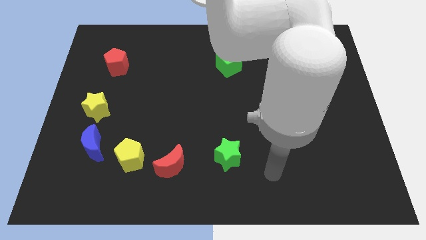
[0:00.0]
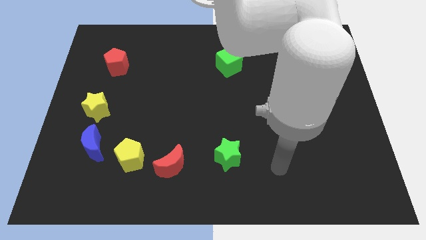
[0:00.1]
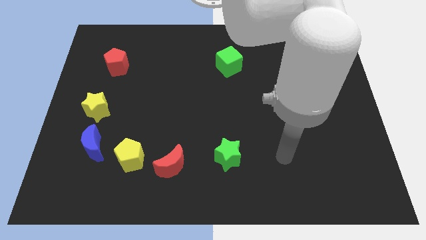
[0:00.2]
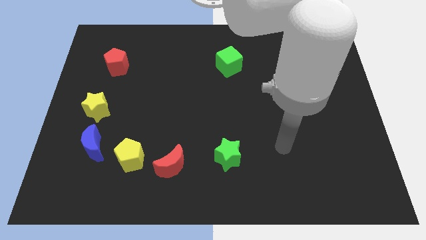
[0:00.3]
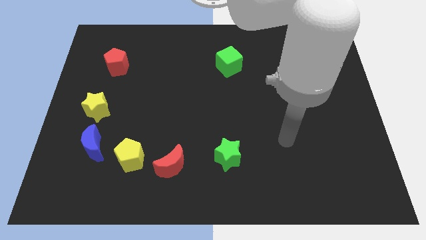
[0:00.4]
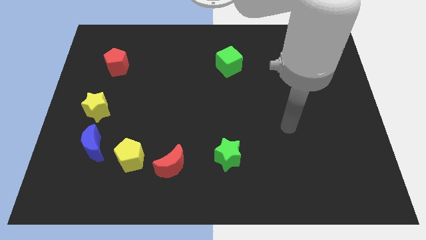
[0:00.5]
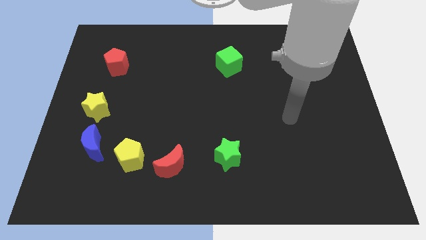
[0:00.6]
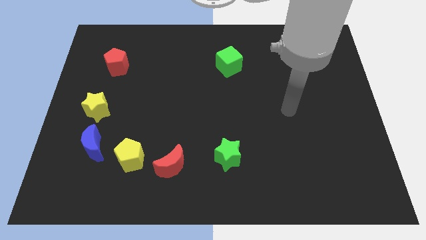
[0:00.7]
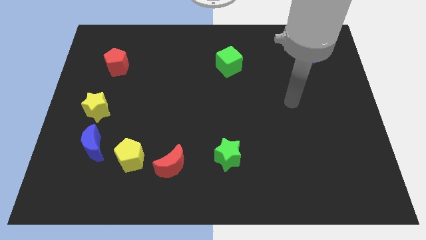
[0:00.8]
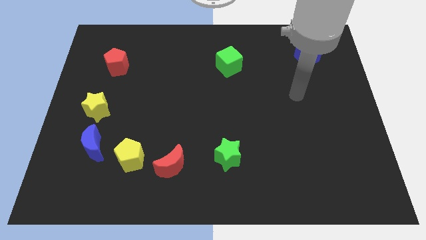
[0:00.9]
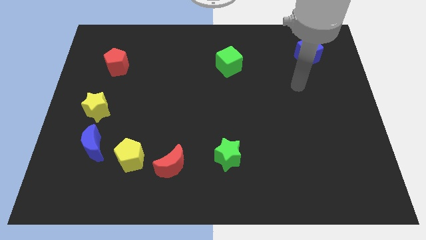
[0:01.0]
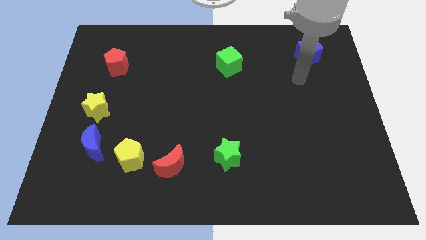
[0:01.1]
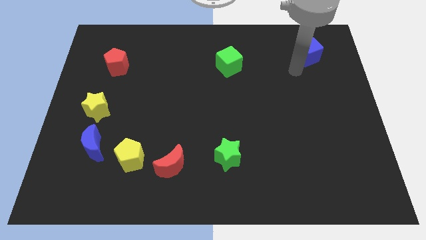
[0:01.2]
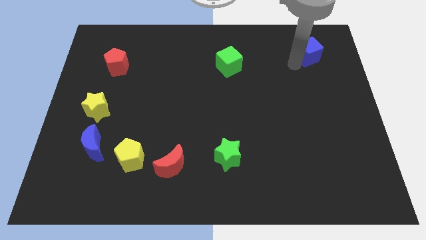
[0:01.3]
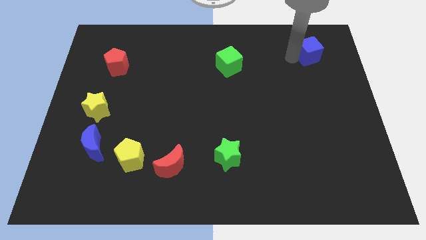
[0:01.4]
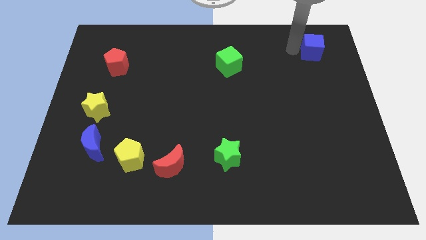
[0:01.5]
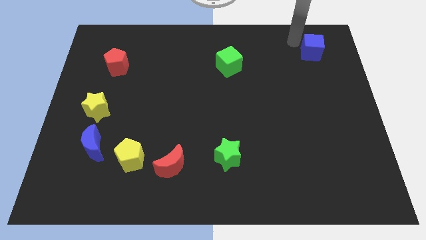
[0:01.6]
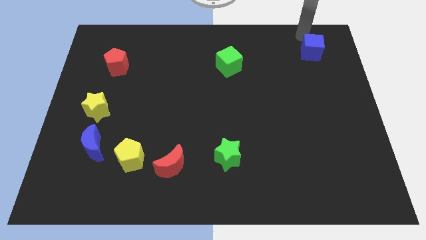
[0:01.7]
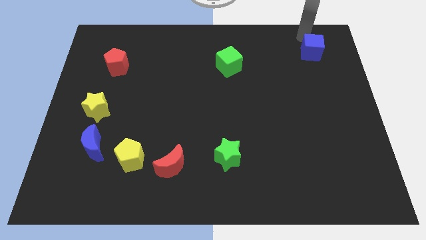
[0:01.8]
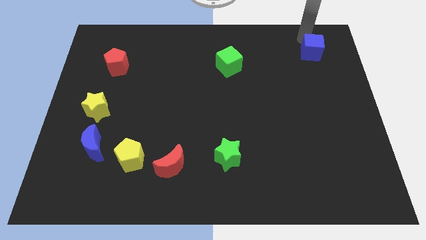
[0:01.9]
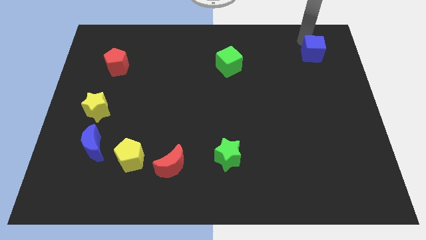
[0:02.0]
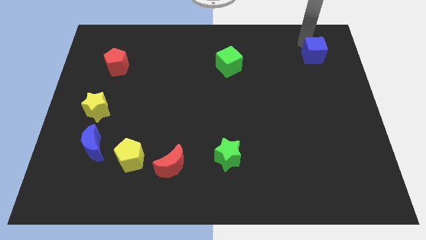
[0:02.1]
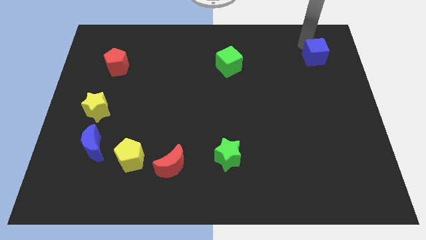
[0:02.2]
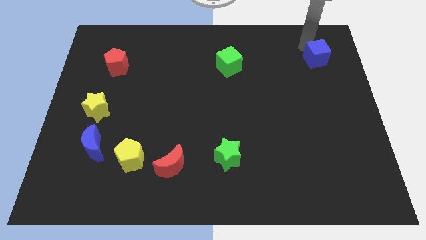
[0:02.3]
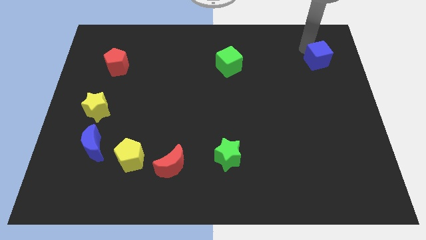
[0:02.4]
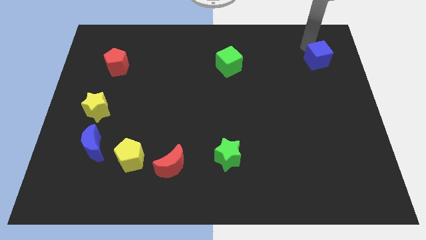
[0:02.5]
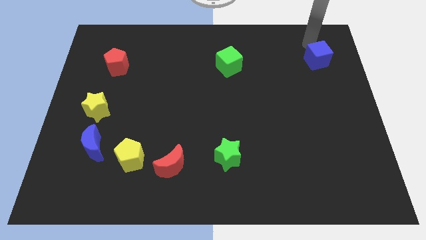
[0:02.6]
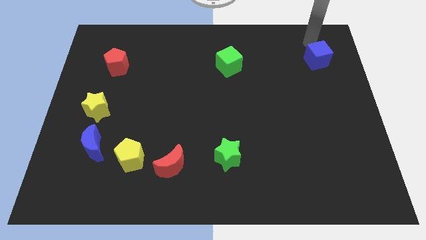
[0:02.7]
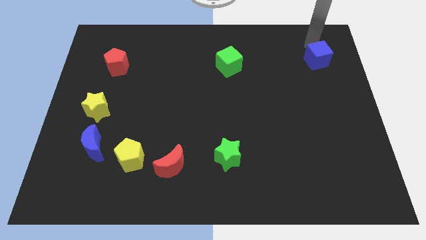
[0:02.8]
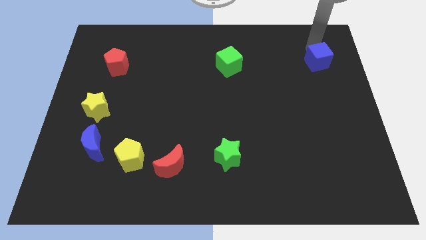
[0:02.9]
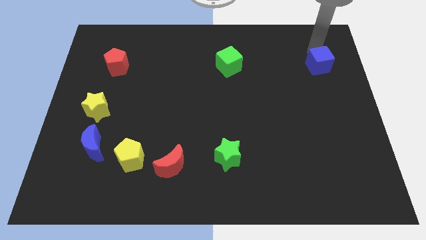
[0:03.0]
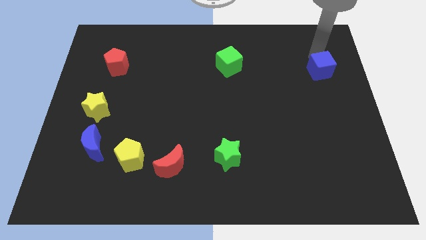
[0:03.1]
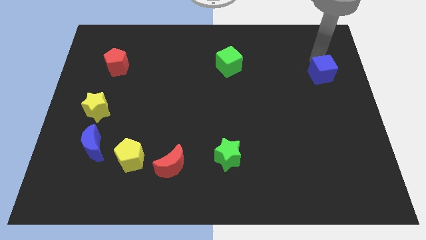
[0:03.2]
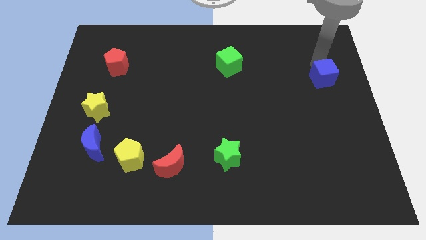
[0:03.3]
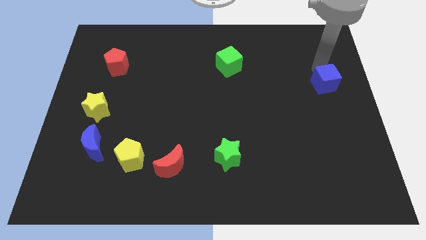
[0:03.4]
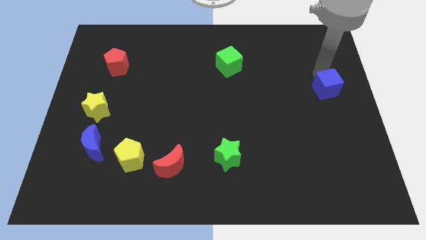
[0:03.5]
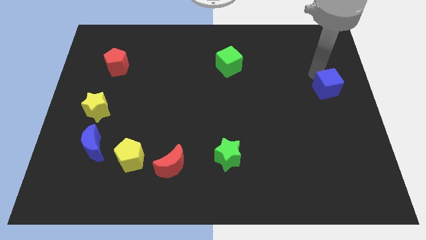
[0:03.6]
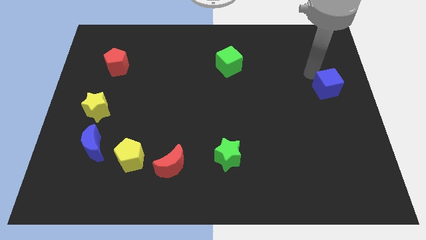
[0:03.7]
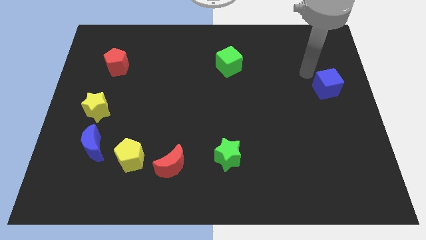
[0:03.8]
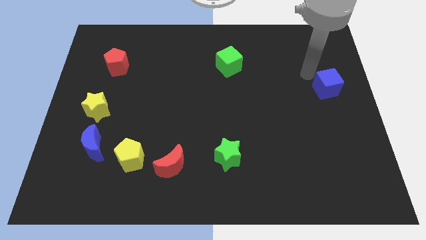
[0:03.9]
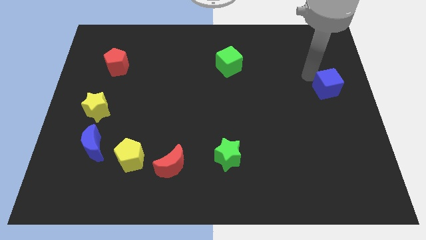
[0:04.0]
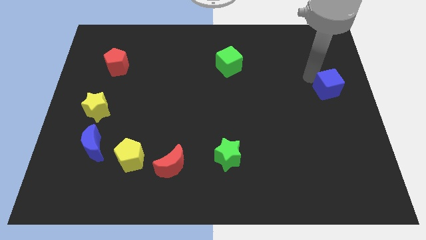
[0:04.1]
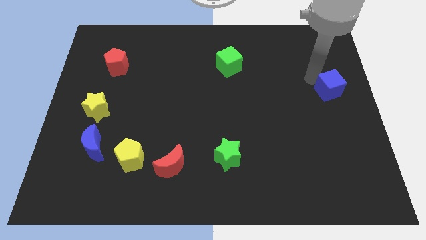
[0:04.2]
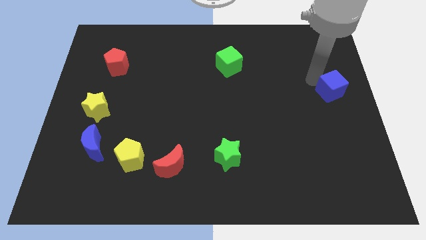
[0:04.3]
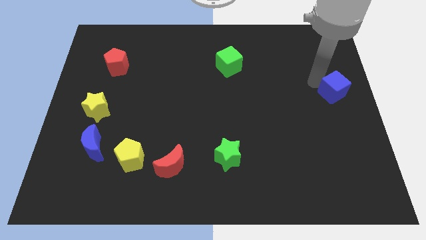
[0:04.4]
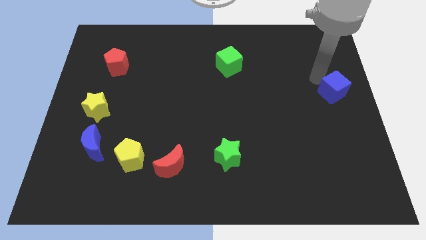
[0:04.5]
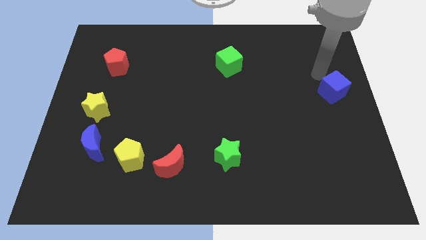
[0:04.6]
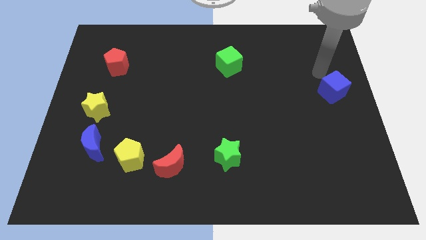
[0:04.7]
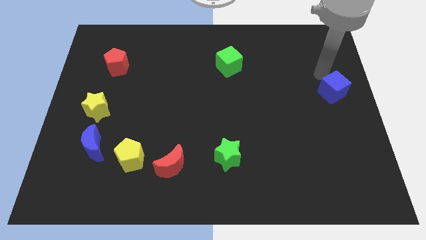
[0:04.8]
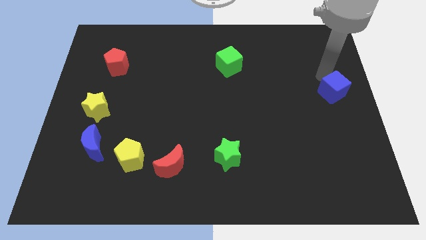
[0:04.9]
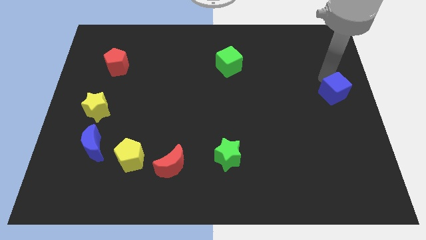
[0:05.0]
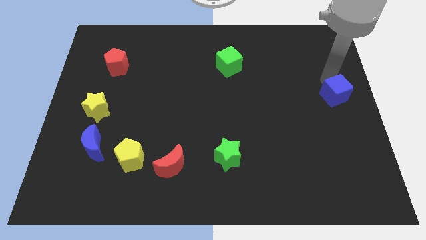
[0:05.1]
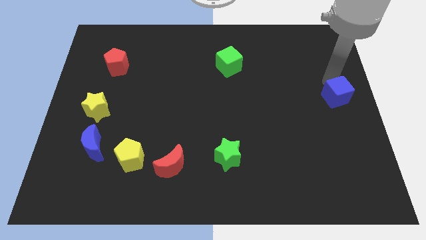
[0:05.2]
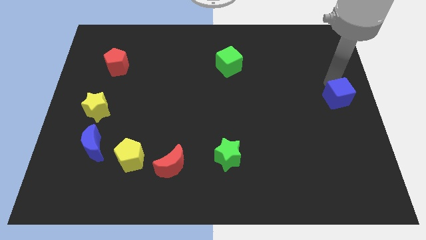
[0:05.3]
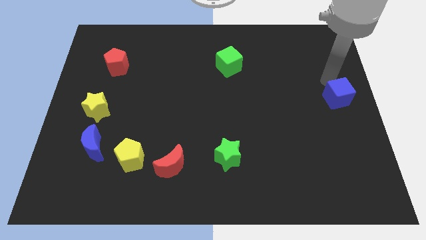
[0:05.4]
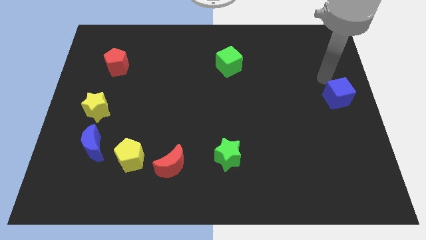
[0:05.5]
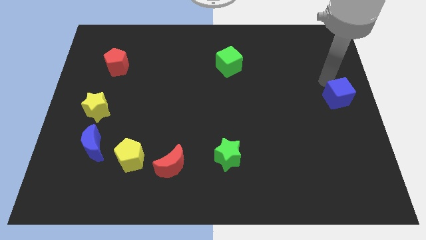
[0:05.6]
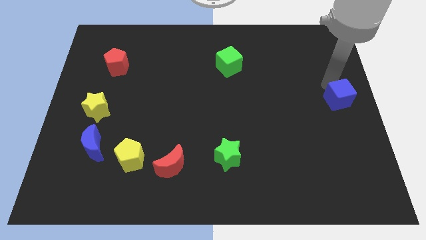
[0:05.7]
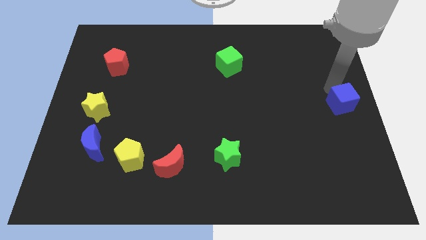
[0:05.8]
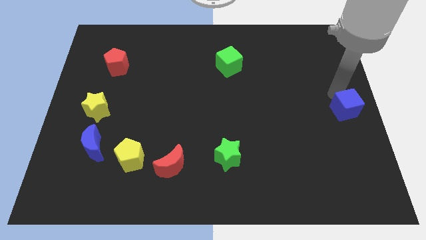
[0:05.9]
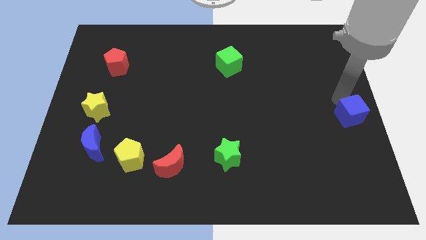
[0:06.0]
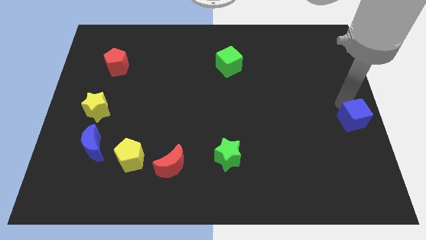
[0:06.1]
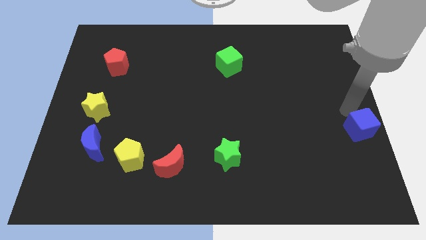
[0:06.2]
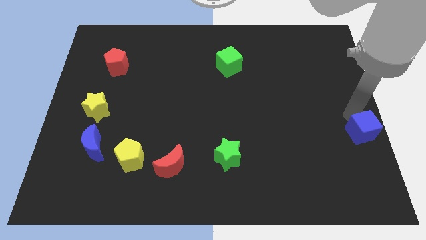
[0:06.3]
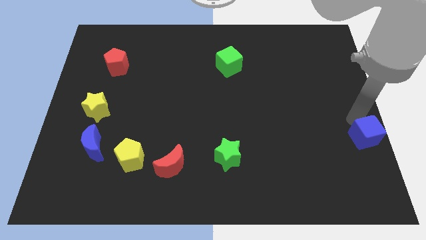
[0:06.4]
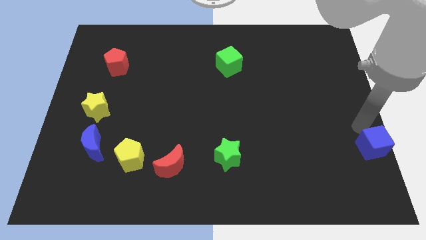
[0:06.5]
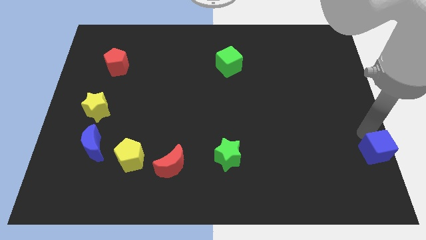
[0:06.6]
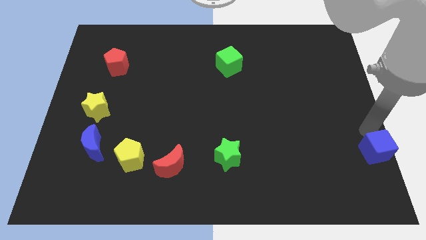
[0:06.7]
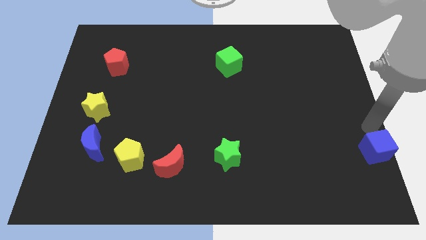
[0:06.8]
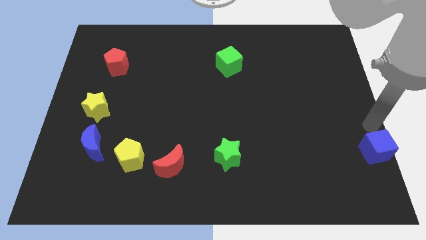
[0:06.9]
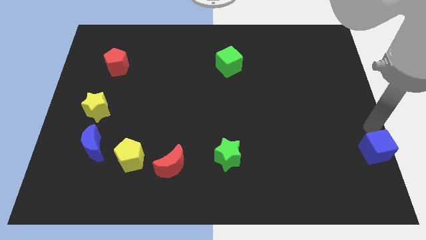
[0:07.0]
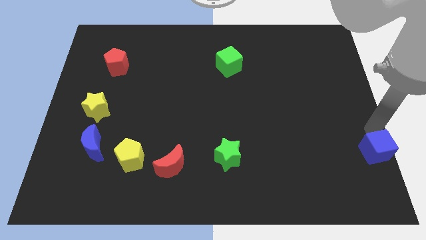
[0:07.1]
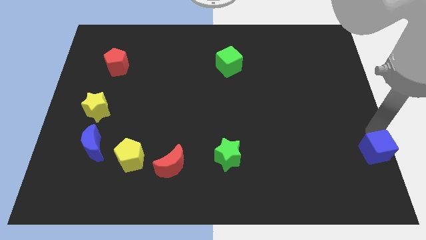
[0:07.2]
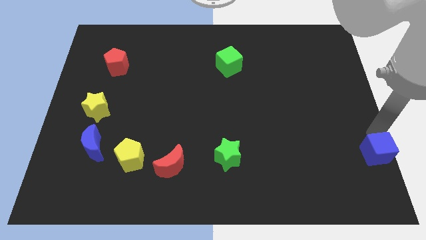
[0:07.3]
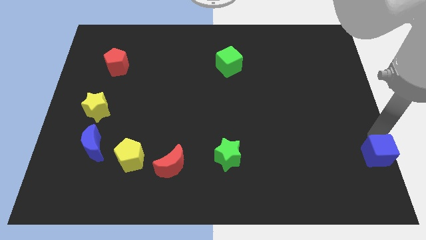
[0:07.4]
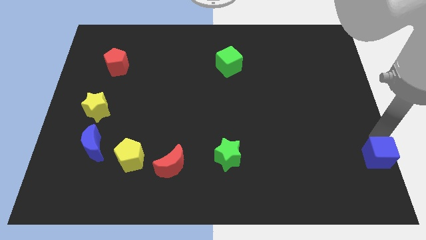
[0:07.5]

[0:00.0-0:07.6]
push the blue cube to the lower right corner

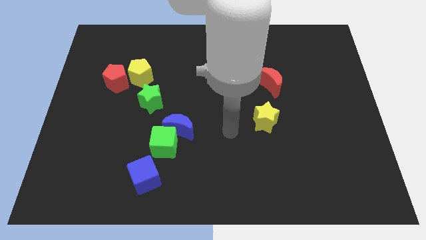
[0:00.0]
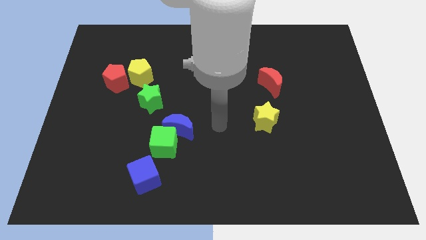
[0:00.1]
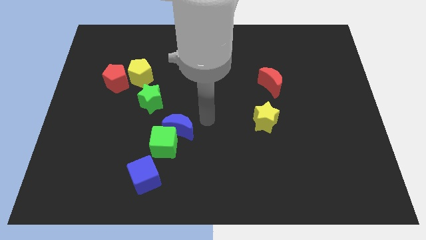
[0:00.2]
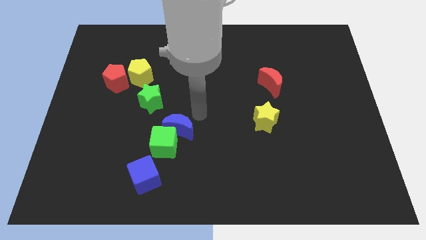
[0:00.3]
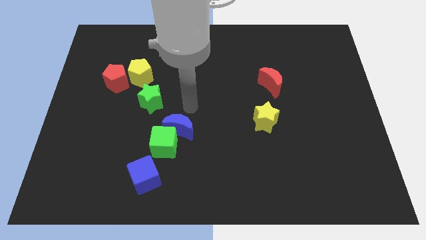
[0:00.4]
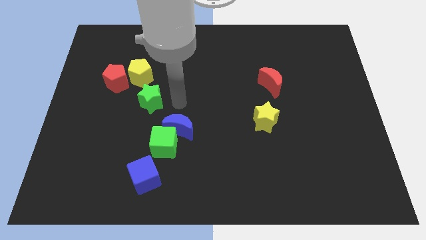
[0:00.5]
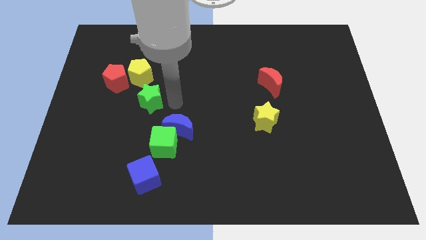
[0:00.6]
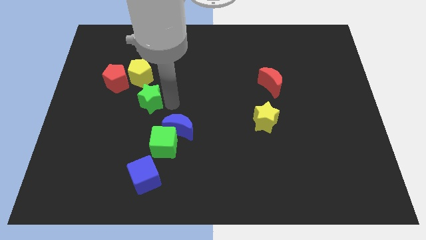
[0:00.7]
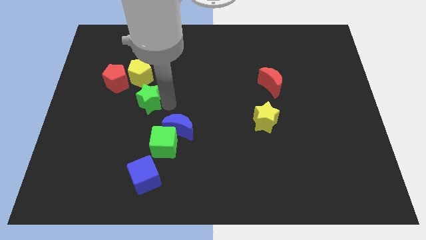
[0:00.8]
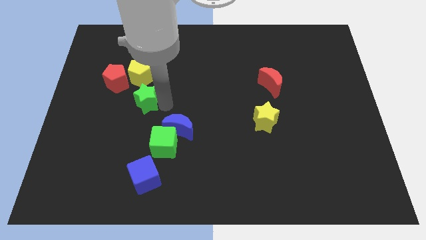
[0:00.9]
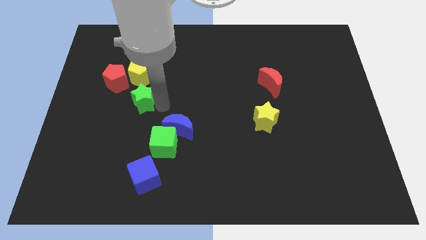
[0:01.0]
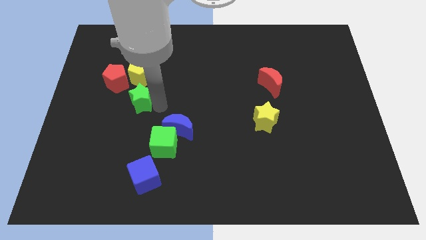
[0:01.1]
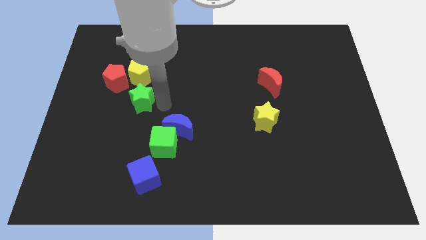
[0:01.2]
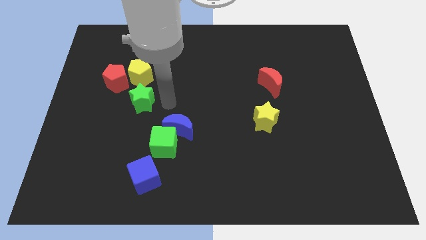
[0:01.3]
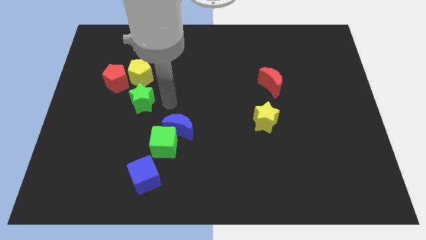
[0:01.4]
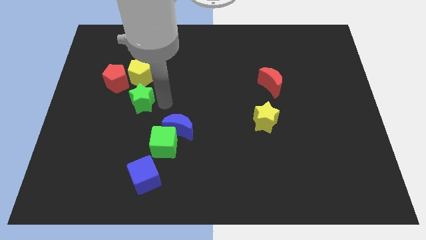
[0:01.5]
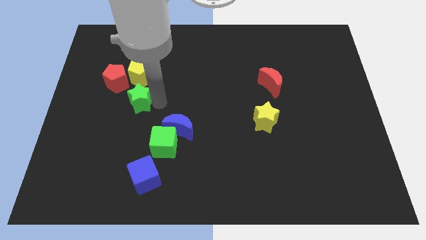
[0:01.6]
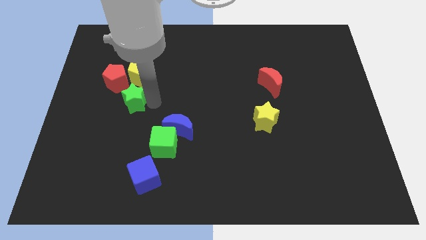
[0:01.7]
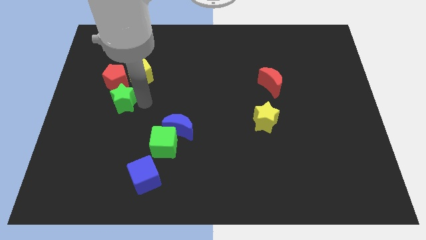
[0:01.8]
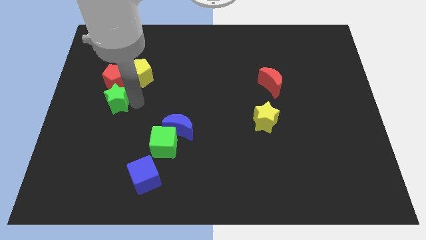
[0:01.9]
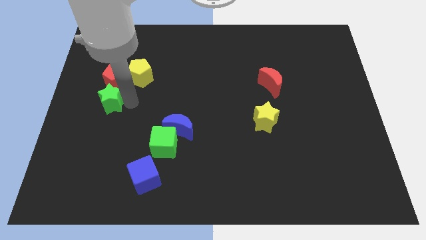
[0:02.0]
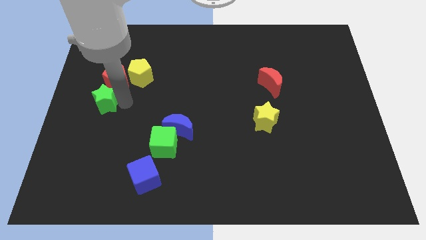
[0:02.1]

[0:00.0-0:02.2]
push the green star to the center left
